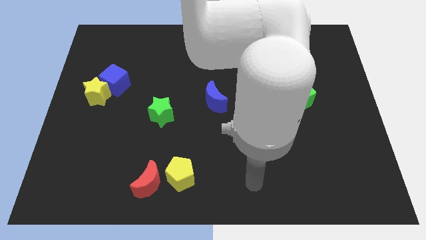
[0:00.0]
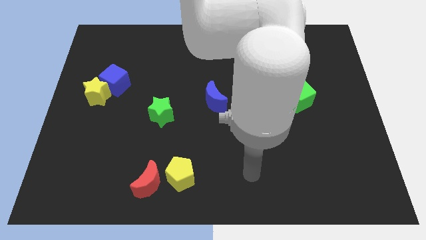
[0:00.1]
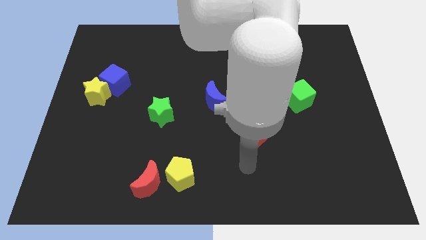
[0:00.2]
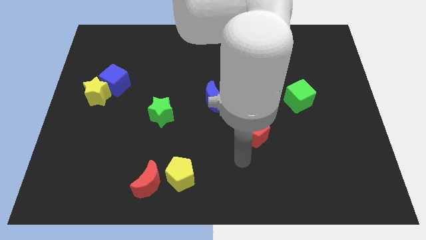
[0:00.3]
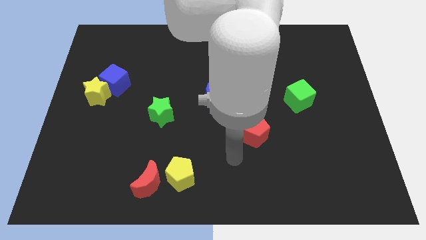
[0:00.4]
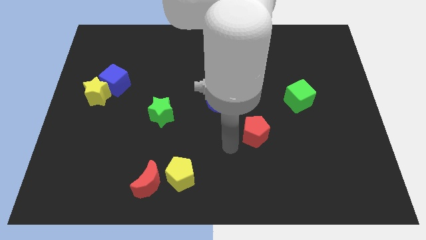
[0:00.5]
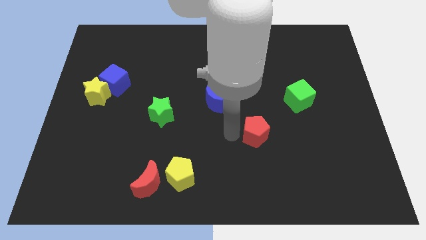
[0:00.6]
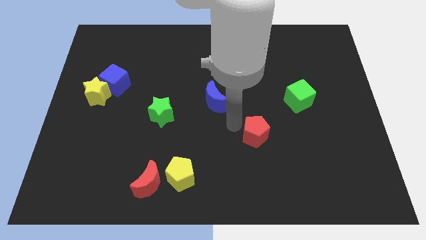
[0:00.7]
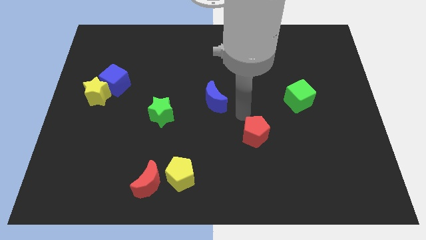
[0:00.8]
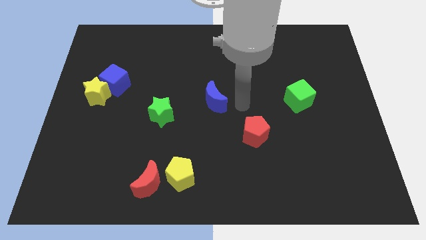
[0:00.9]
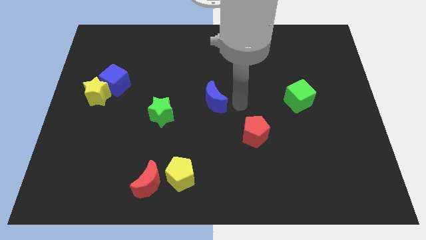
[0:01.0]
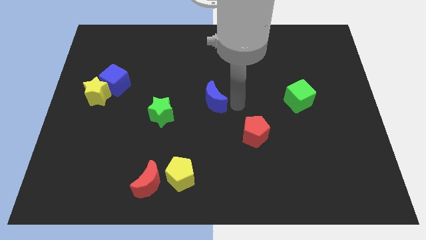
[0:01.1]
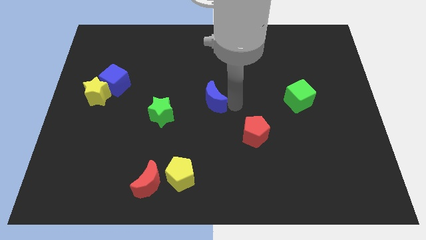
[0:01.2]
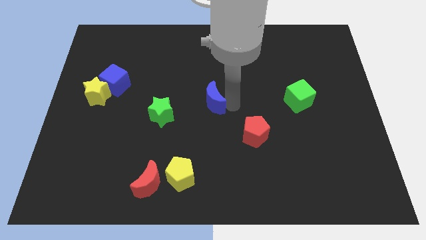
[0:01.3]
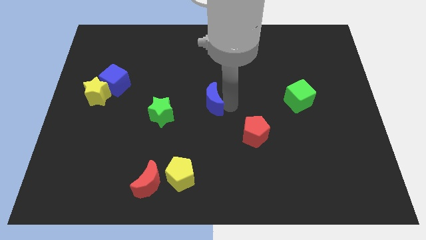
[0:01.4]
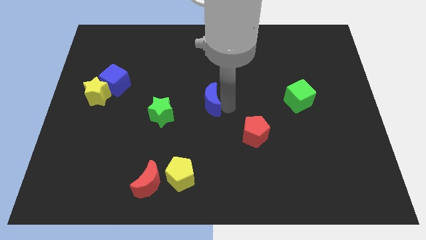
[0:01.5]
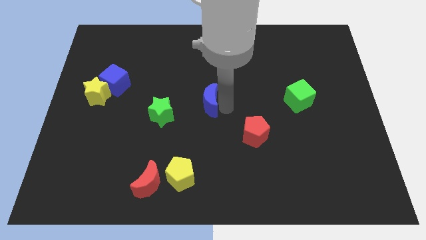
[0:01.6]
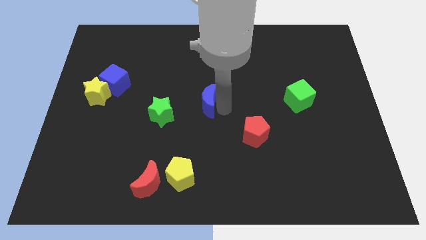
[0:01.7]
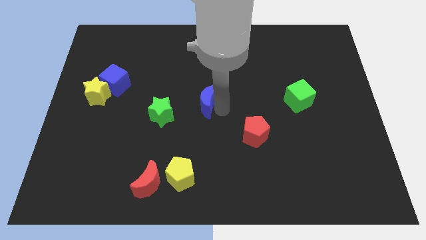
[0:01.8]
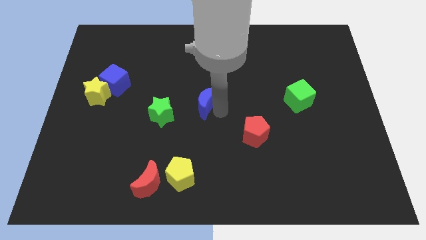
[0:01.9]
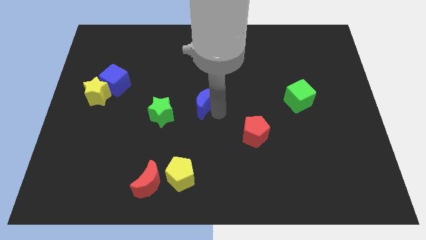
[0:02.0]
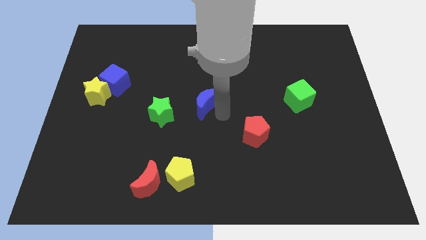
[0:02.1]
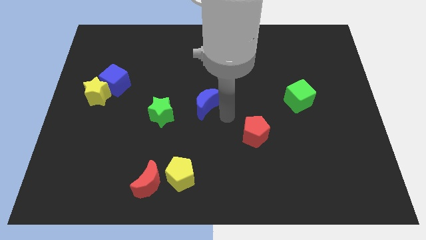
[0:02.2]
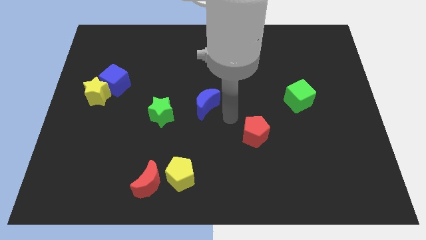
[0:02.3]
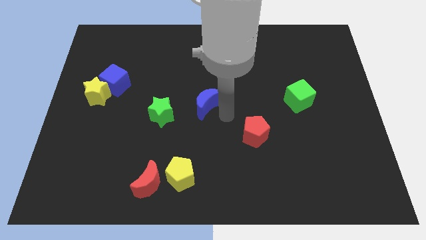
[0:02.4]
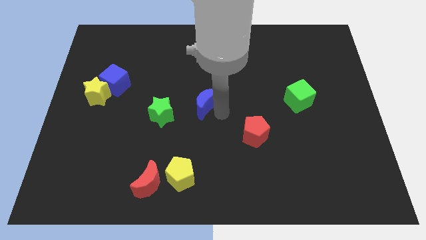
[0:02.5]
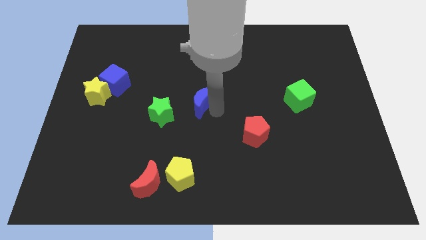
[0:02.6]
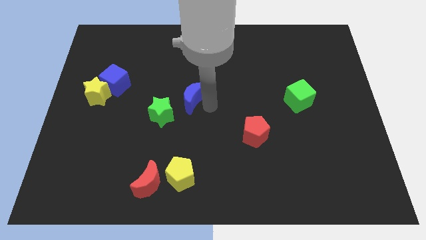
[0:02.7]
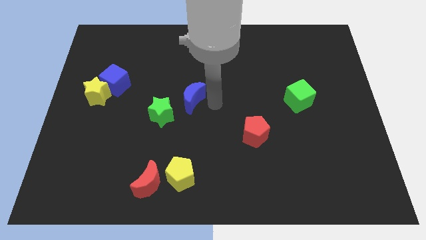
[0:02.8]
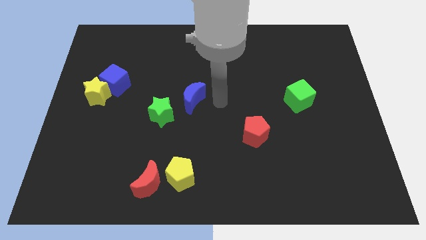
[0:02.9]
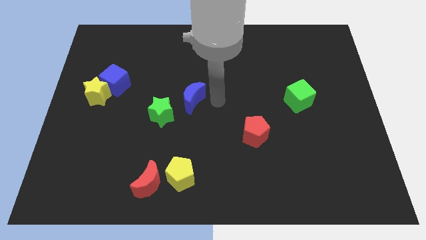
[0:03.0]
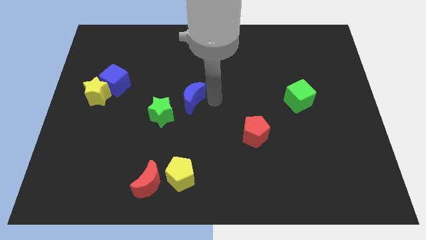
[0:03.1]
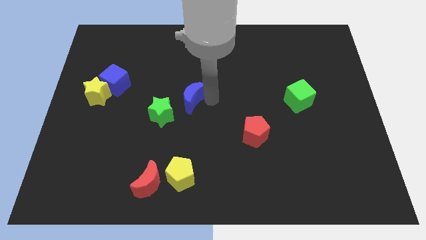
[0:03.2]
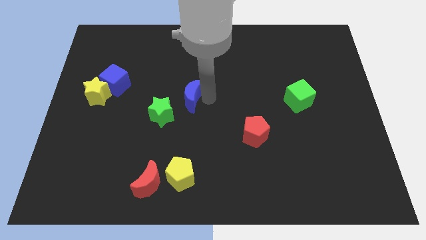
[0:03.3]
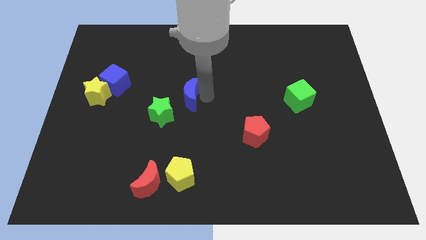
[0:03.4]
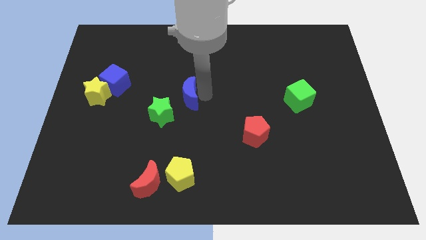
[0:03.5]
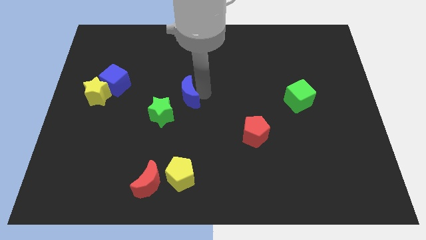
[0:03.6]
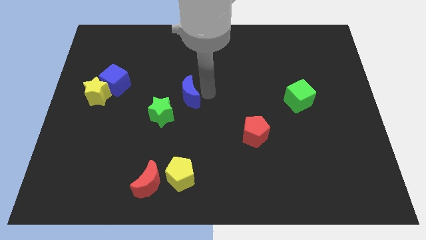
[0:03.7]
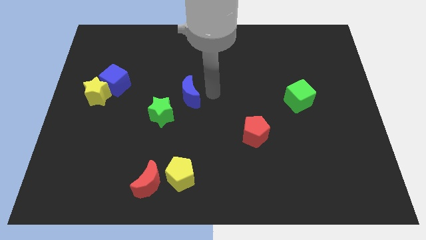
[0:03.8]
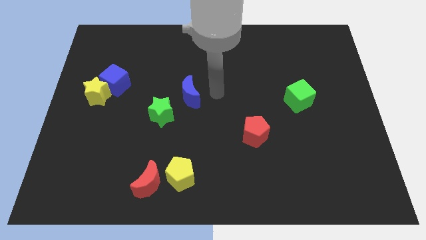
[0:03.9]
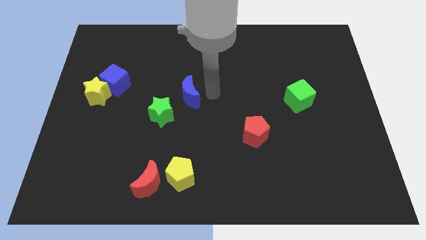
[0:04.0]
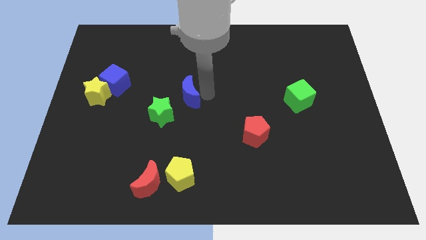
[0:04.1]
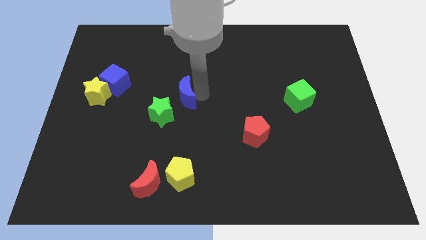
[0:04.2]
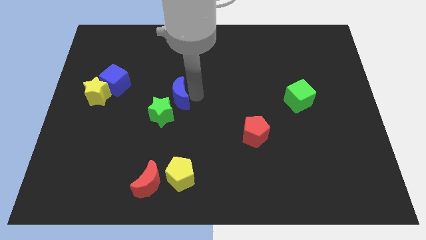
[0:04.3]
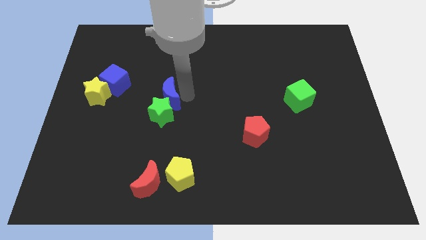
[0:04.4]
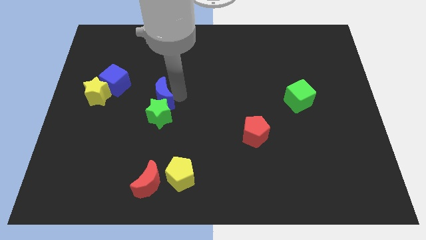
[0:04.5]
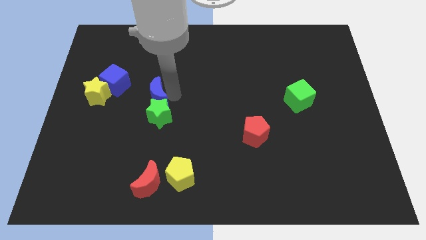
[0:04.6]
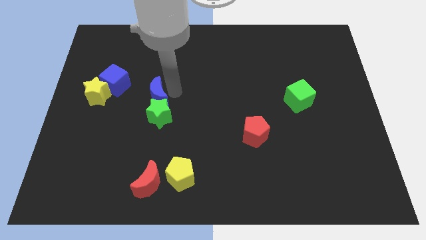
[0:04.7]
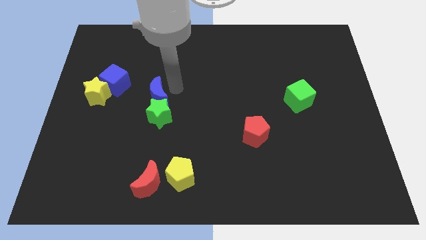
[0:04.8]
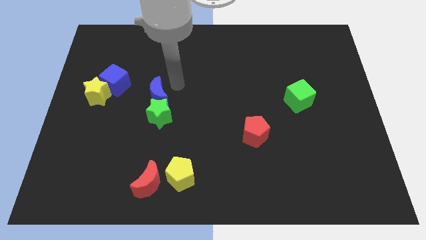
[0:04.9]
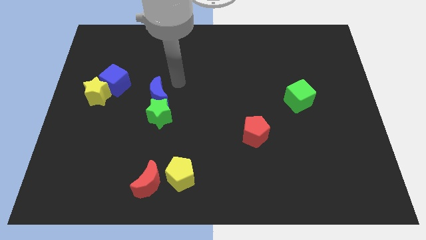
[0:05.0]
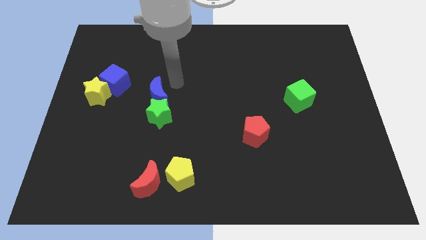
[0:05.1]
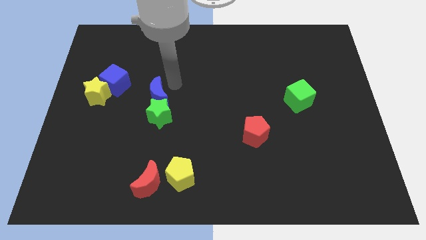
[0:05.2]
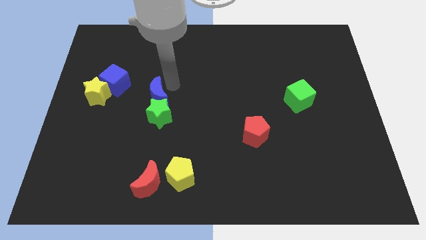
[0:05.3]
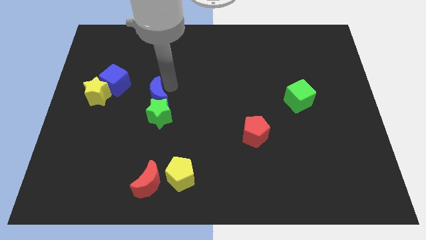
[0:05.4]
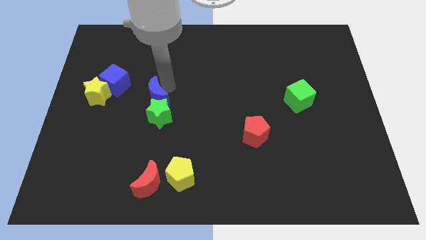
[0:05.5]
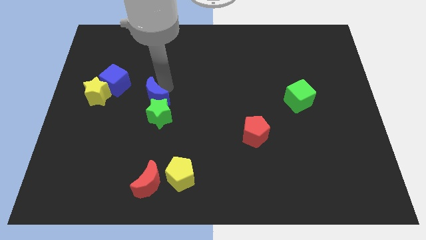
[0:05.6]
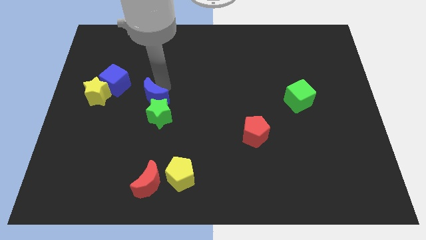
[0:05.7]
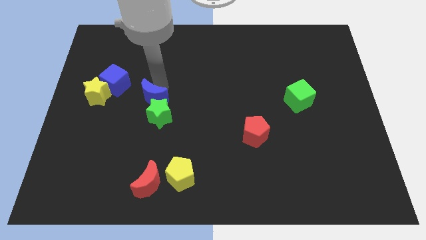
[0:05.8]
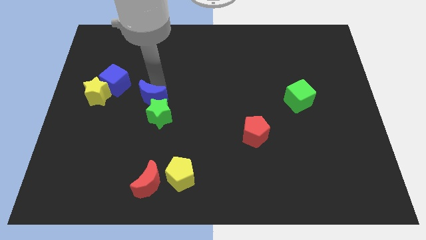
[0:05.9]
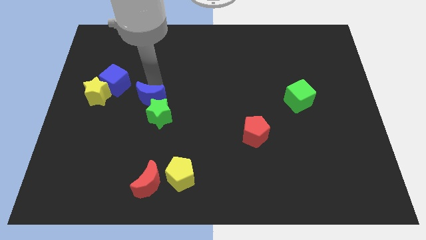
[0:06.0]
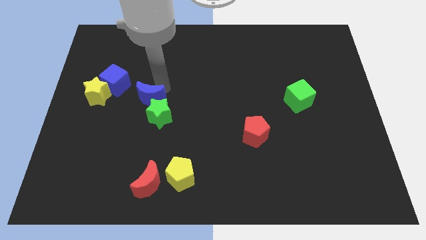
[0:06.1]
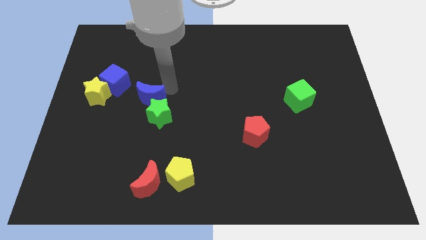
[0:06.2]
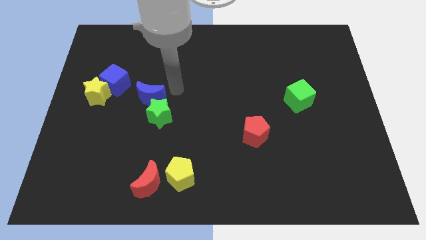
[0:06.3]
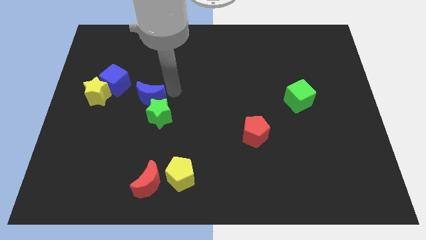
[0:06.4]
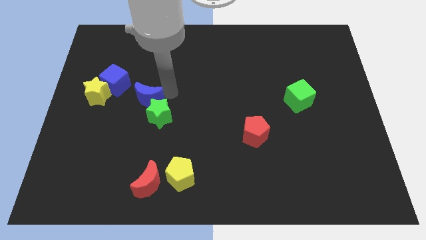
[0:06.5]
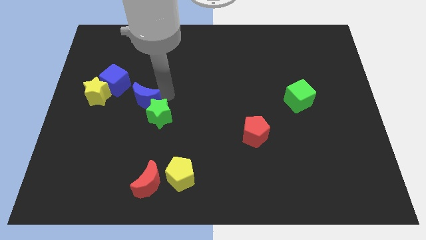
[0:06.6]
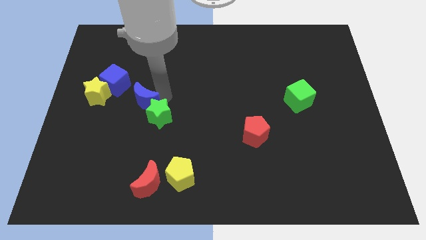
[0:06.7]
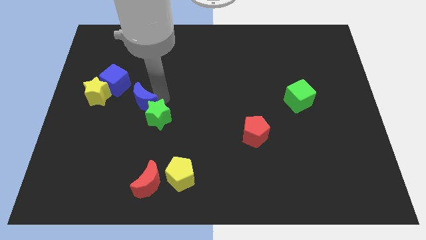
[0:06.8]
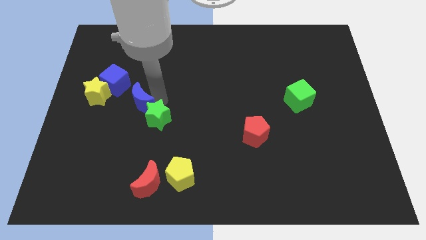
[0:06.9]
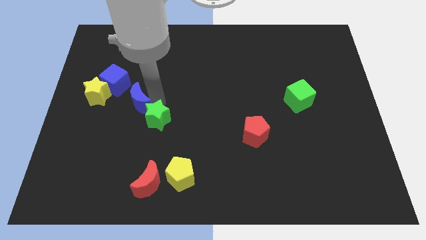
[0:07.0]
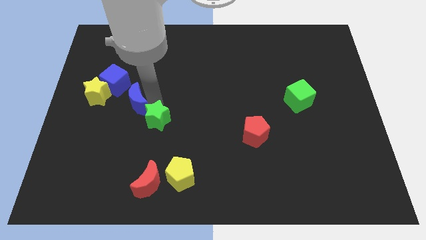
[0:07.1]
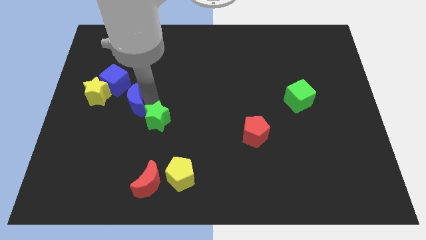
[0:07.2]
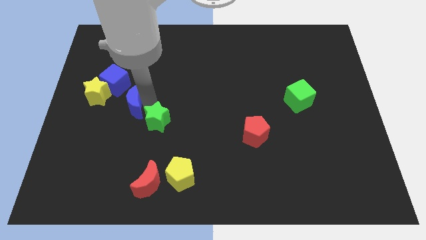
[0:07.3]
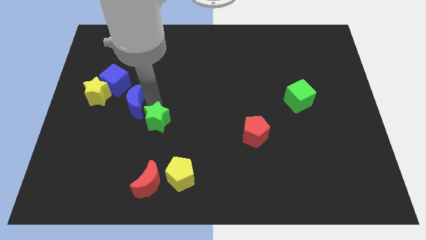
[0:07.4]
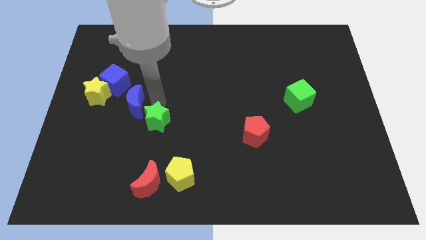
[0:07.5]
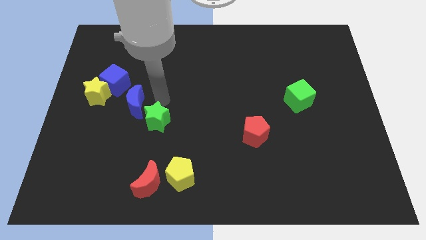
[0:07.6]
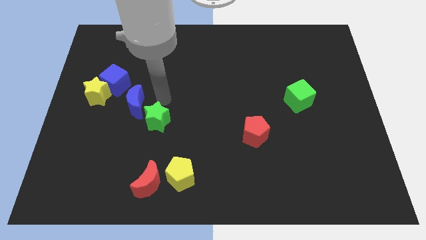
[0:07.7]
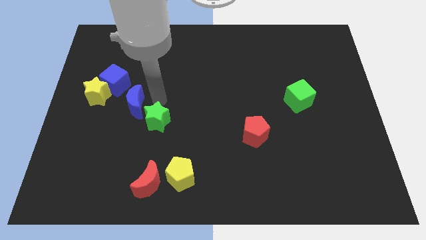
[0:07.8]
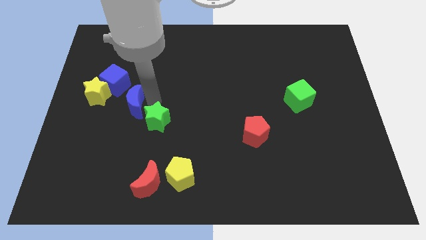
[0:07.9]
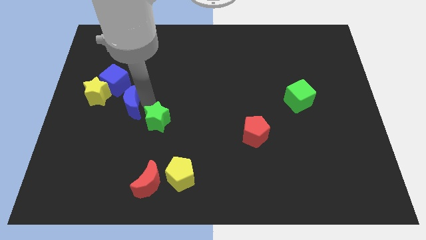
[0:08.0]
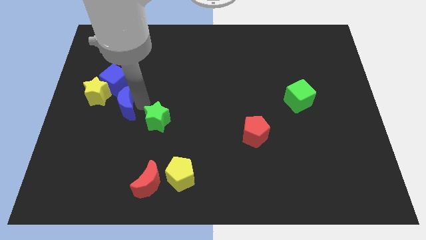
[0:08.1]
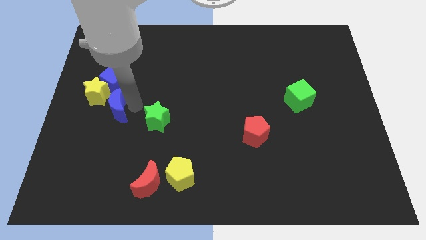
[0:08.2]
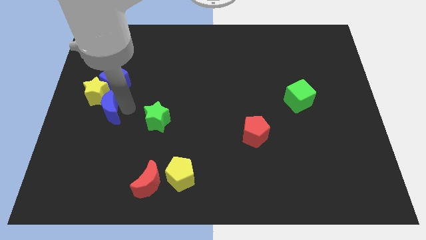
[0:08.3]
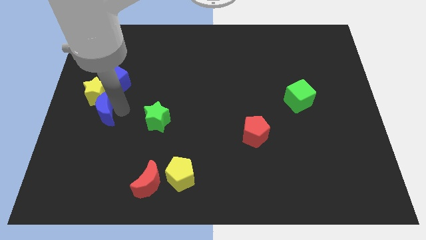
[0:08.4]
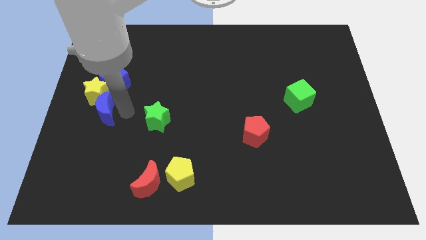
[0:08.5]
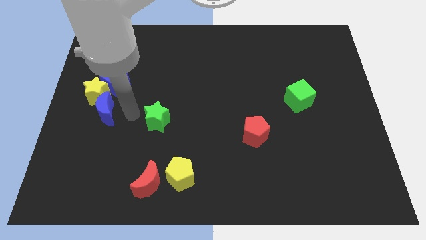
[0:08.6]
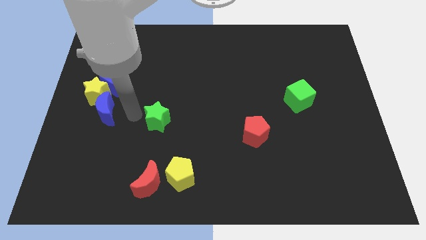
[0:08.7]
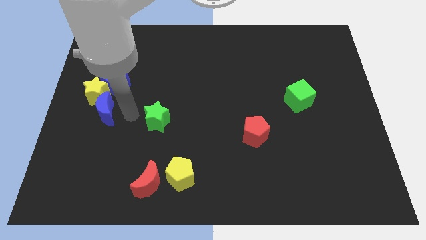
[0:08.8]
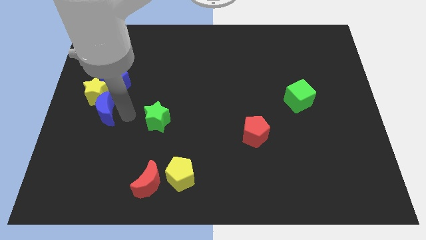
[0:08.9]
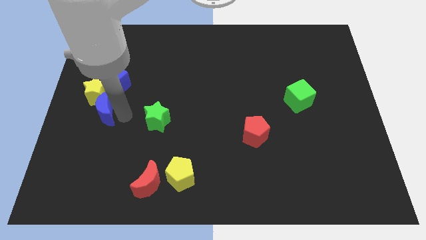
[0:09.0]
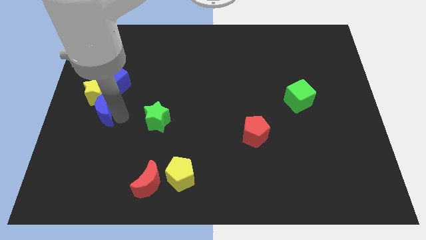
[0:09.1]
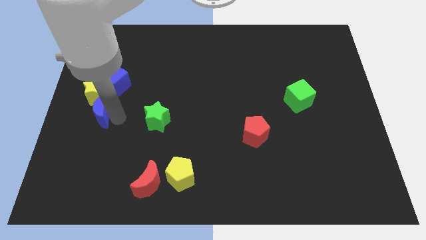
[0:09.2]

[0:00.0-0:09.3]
slide the blue moon to the center left
